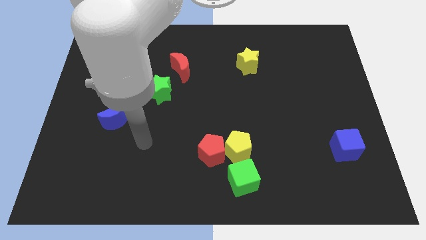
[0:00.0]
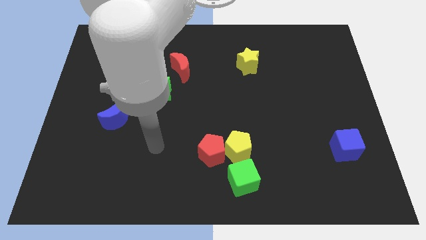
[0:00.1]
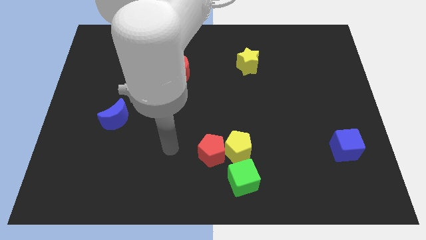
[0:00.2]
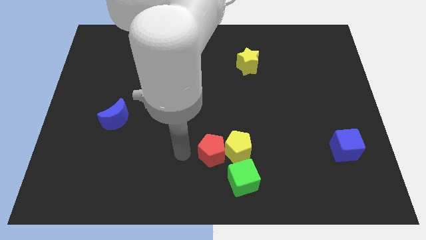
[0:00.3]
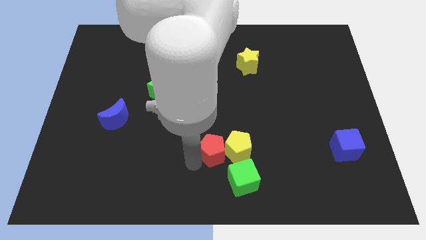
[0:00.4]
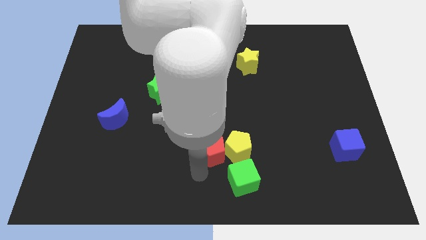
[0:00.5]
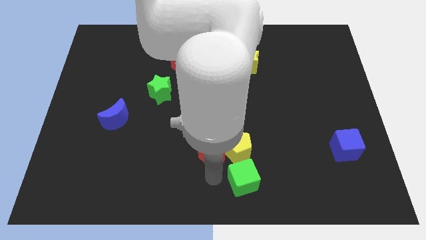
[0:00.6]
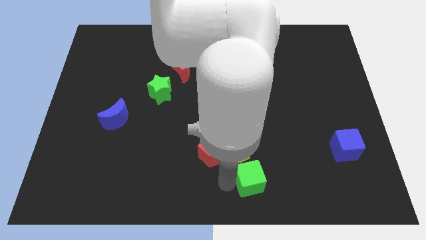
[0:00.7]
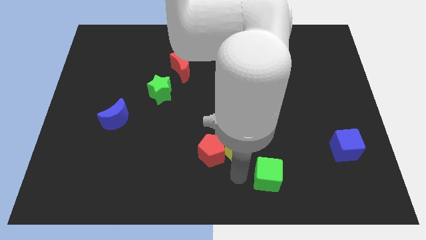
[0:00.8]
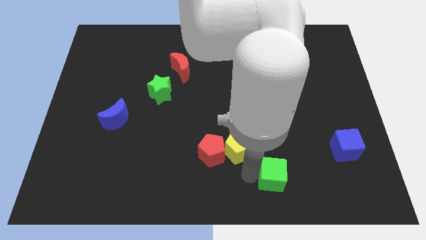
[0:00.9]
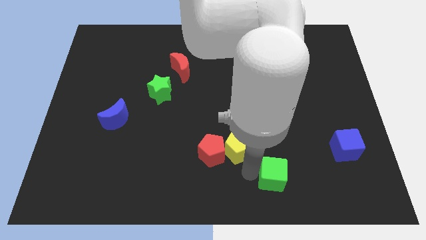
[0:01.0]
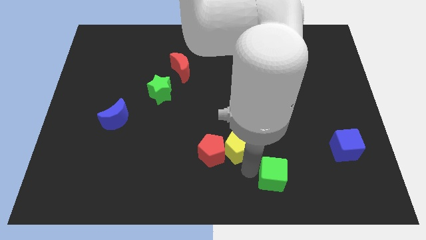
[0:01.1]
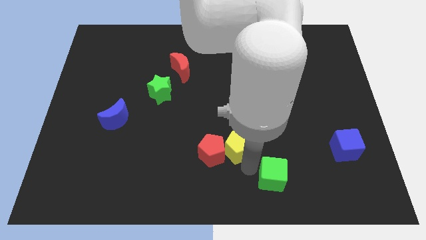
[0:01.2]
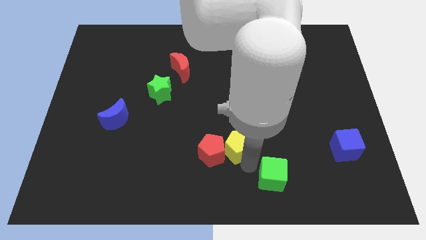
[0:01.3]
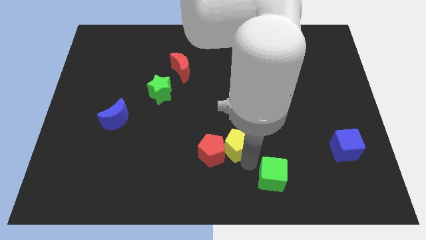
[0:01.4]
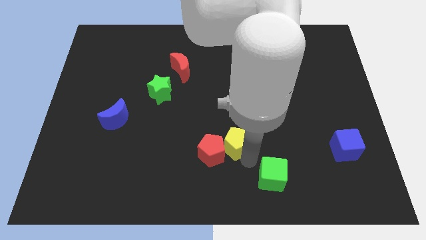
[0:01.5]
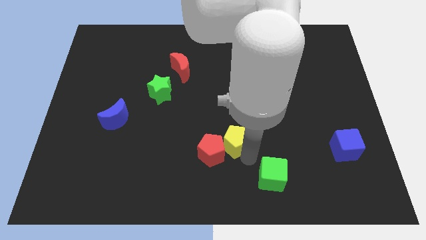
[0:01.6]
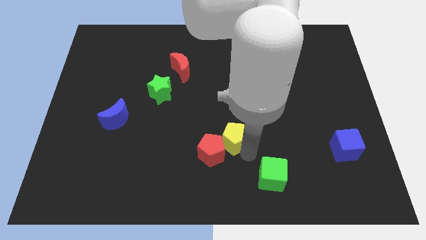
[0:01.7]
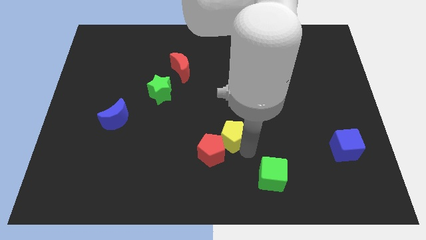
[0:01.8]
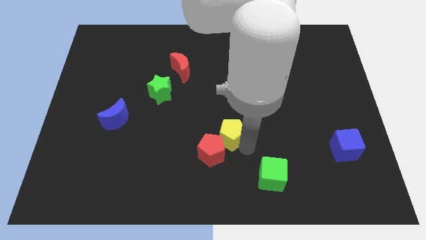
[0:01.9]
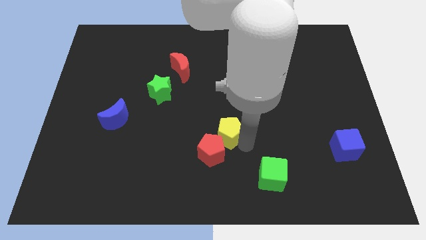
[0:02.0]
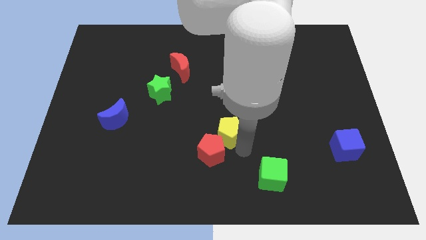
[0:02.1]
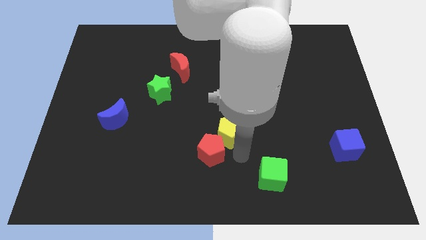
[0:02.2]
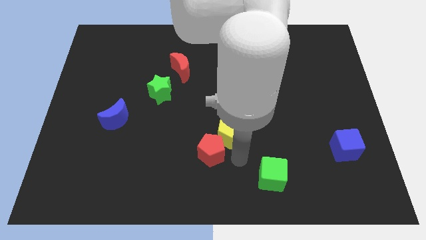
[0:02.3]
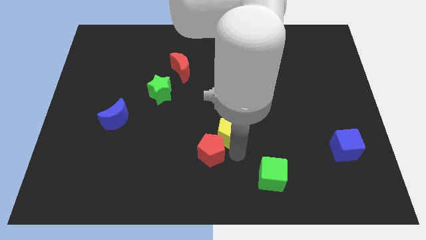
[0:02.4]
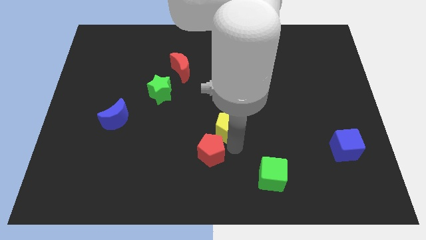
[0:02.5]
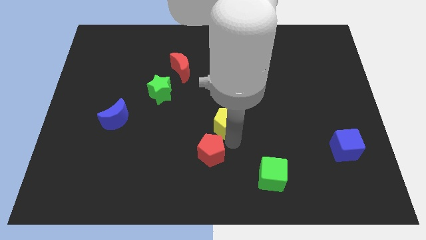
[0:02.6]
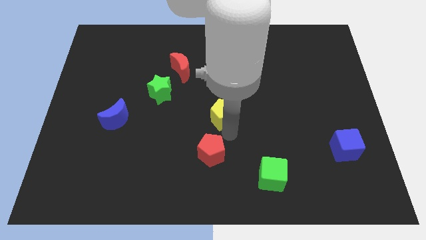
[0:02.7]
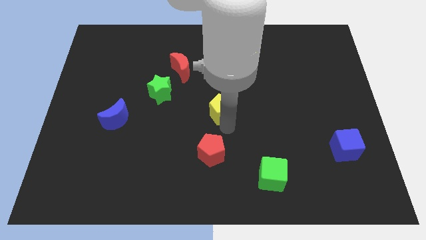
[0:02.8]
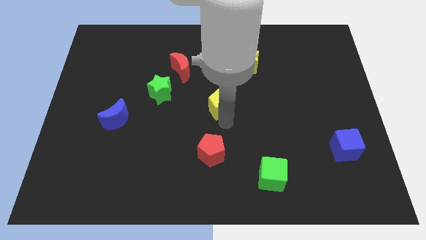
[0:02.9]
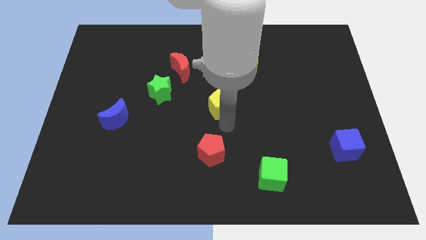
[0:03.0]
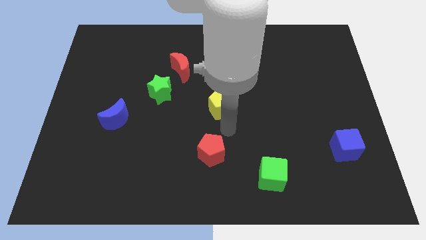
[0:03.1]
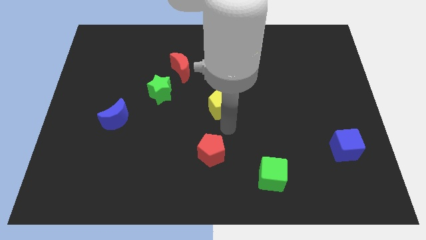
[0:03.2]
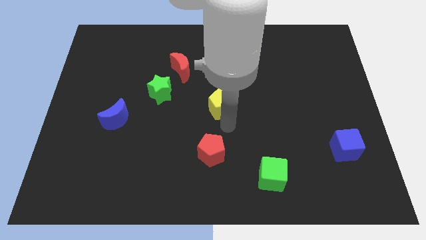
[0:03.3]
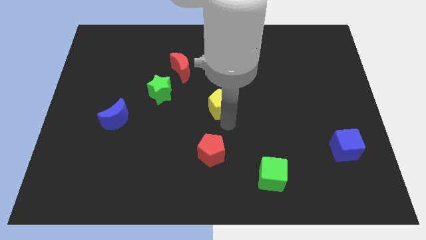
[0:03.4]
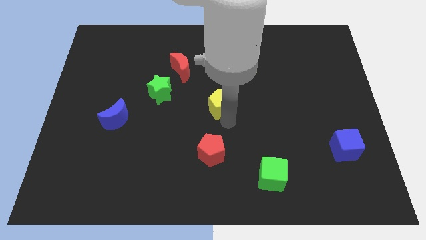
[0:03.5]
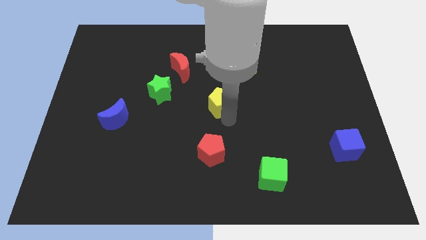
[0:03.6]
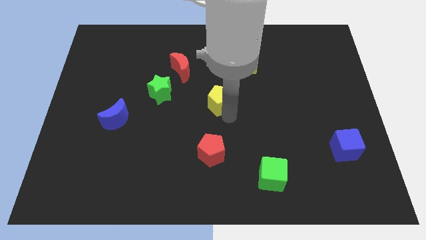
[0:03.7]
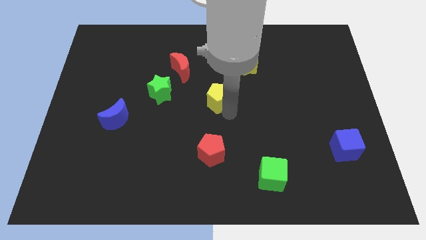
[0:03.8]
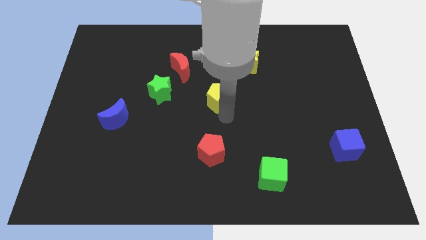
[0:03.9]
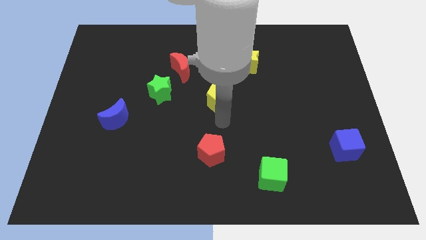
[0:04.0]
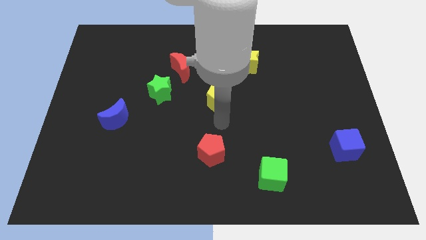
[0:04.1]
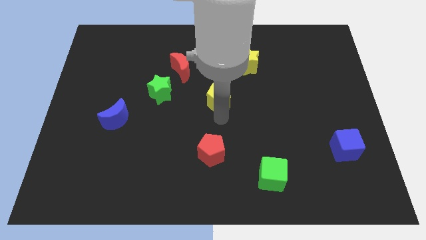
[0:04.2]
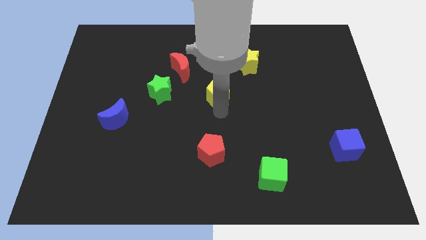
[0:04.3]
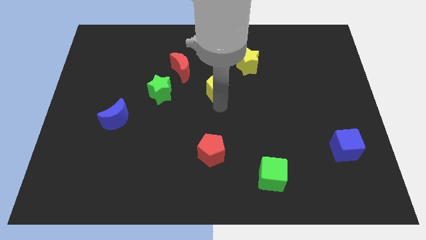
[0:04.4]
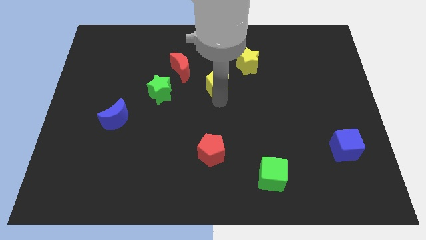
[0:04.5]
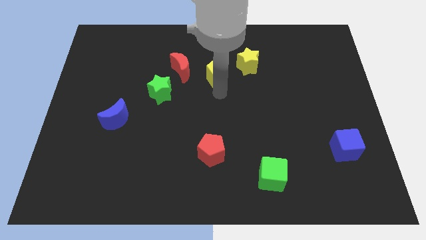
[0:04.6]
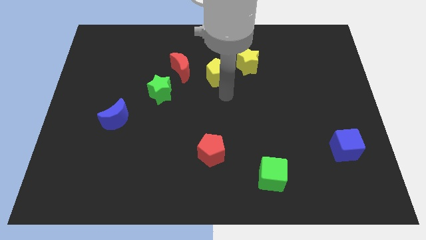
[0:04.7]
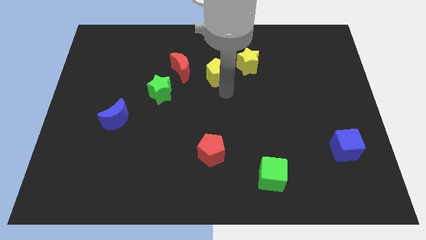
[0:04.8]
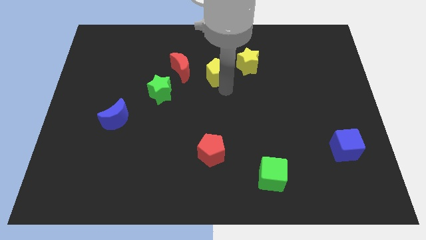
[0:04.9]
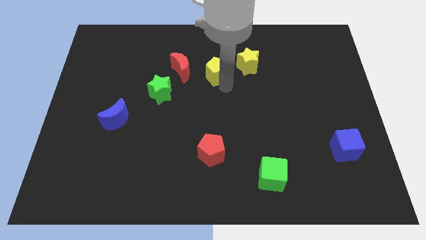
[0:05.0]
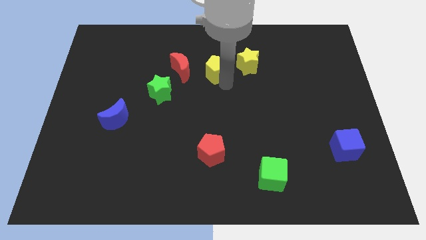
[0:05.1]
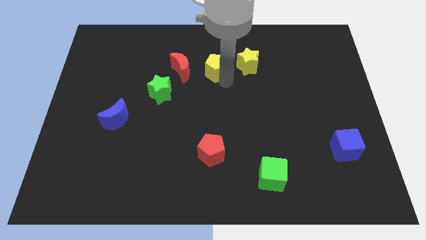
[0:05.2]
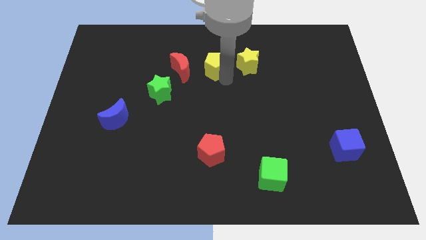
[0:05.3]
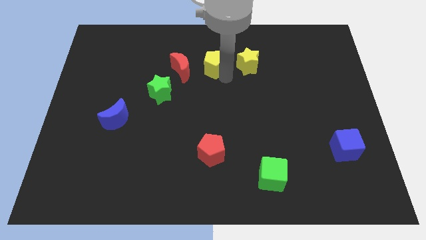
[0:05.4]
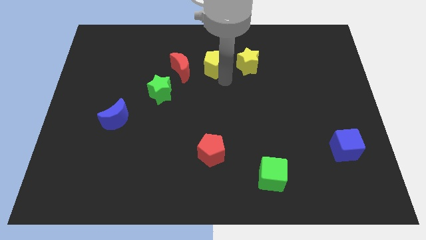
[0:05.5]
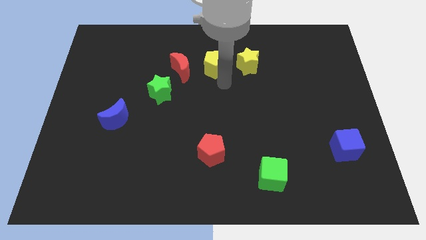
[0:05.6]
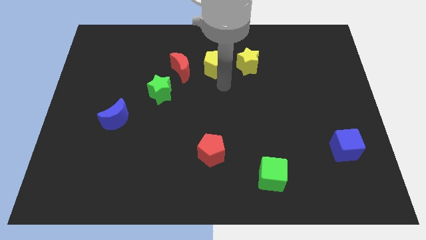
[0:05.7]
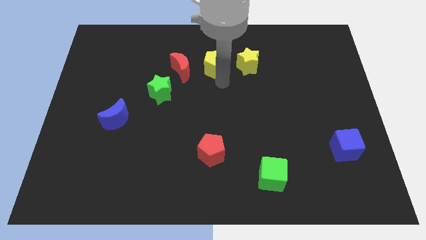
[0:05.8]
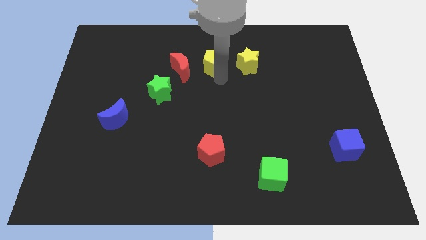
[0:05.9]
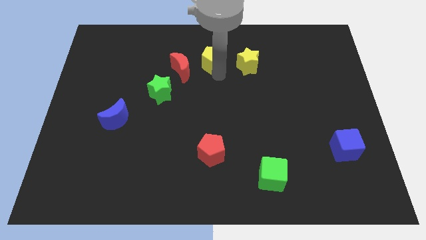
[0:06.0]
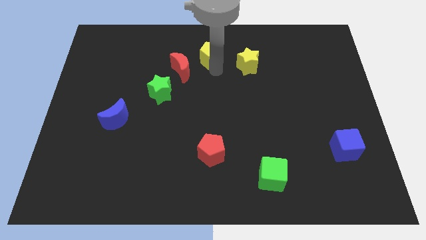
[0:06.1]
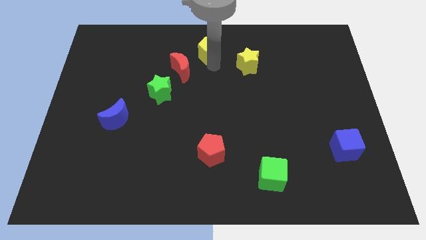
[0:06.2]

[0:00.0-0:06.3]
push the yellow pentagon to the top
